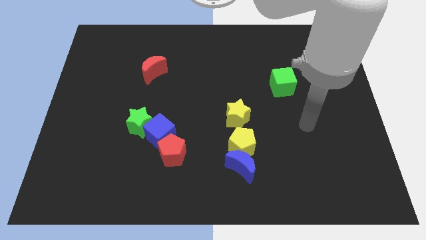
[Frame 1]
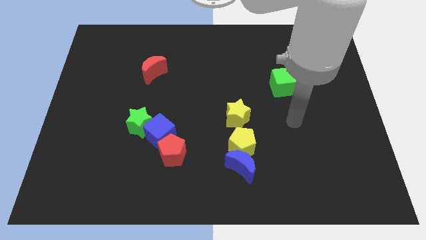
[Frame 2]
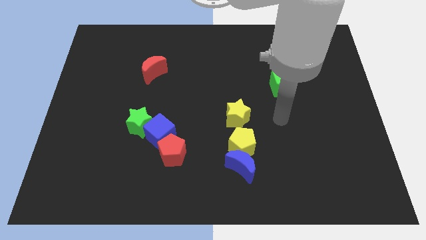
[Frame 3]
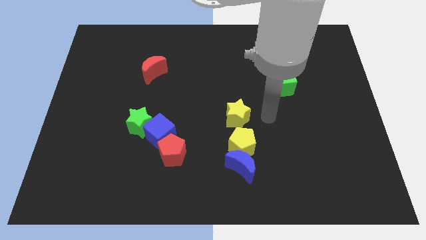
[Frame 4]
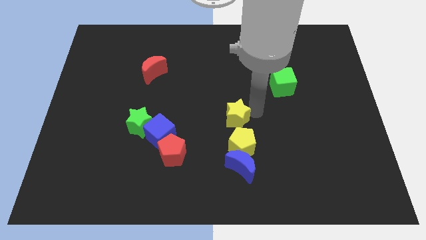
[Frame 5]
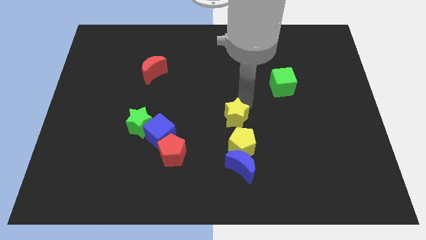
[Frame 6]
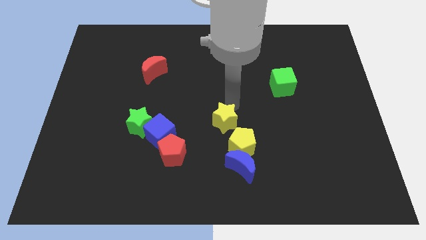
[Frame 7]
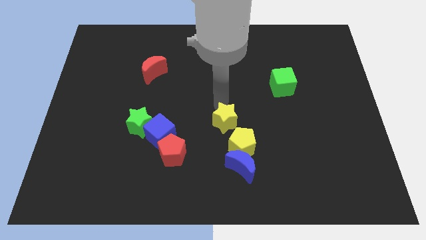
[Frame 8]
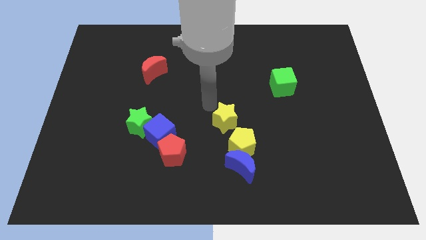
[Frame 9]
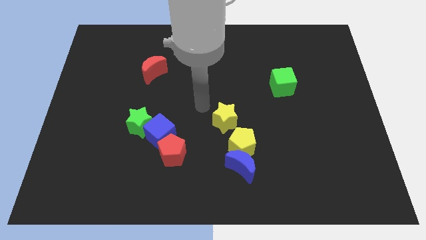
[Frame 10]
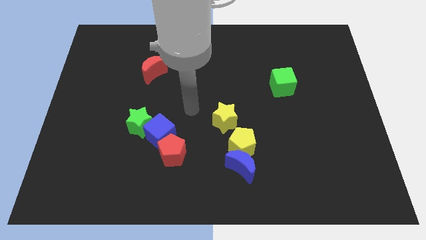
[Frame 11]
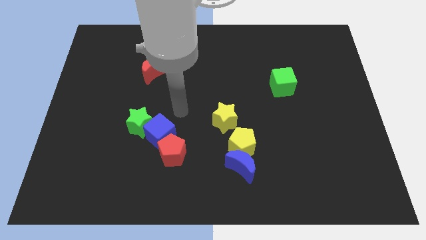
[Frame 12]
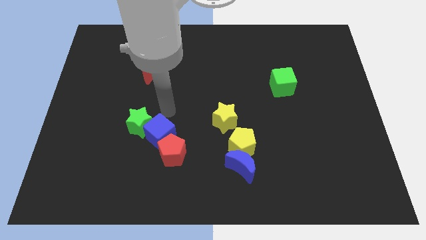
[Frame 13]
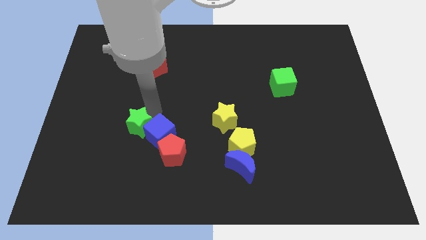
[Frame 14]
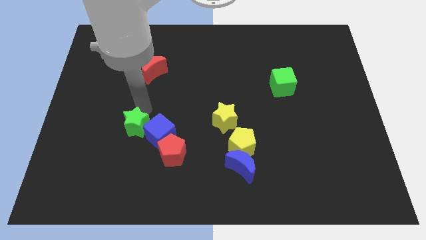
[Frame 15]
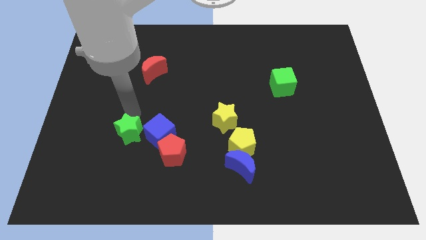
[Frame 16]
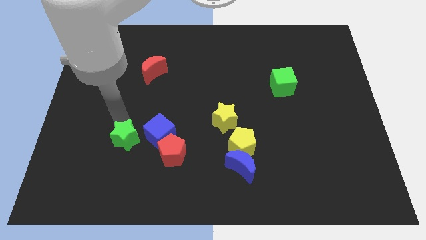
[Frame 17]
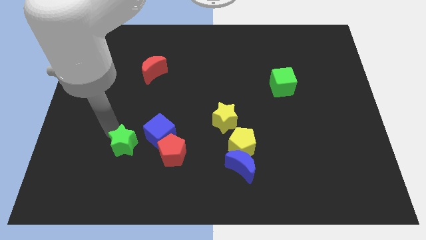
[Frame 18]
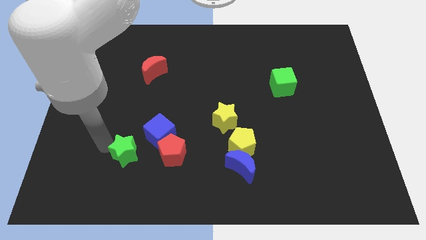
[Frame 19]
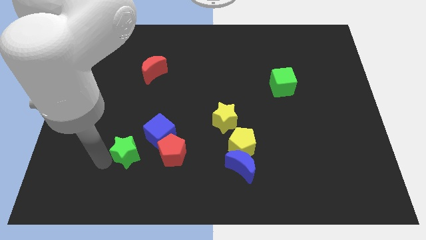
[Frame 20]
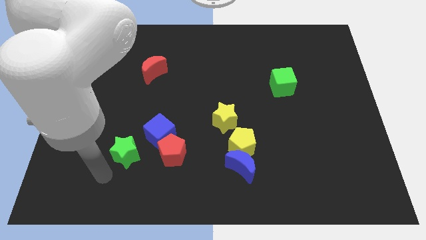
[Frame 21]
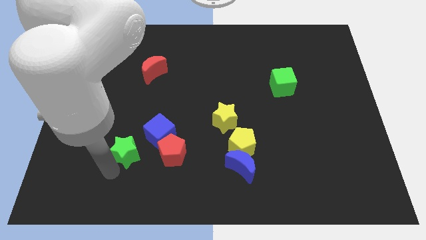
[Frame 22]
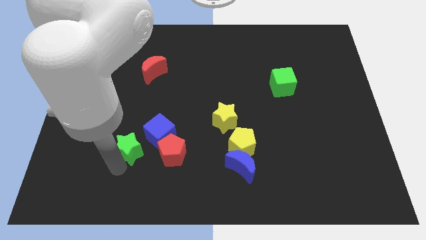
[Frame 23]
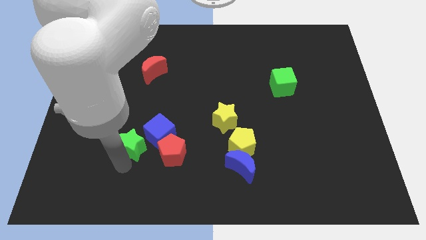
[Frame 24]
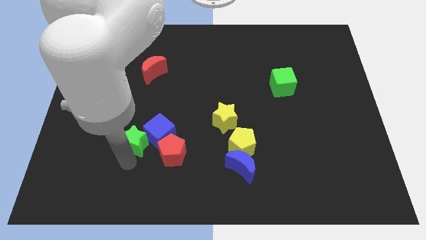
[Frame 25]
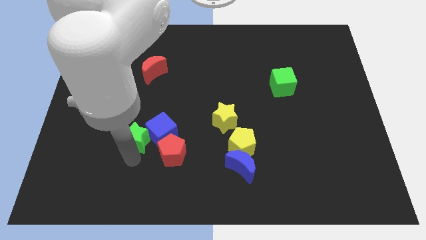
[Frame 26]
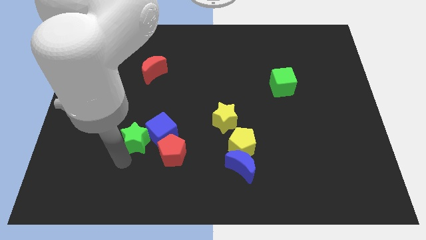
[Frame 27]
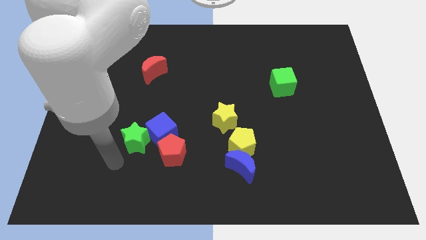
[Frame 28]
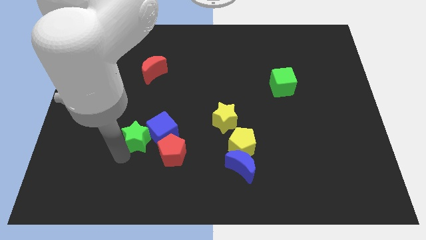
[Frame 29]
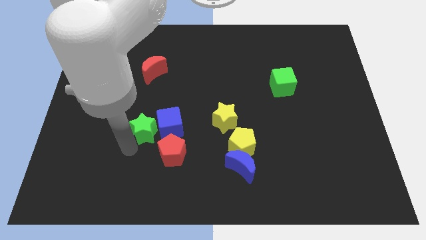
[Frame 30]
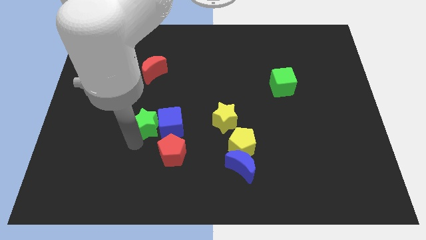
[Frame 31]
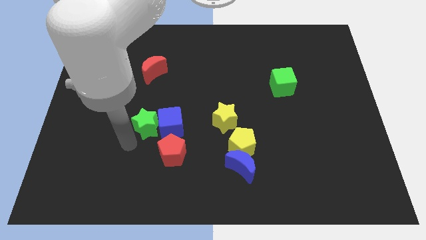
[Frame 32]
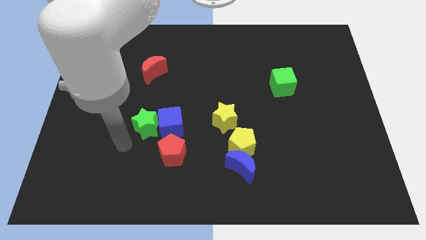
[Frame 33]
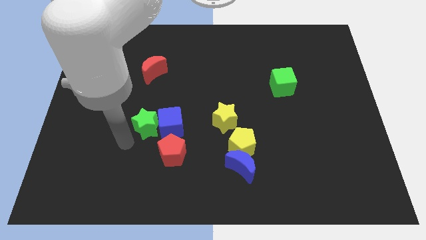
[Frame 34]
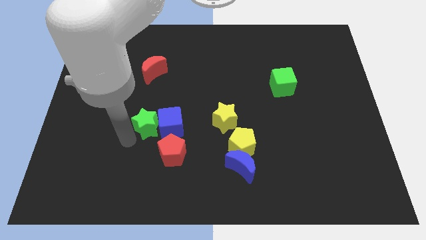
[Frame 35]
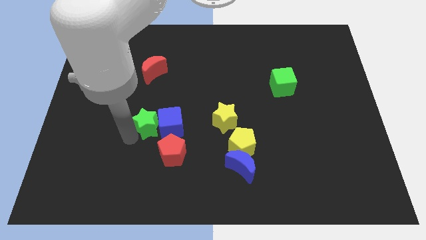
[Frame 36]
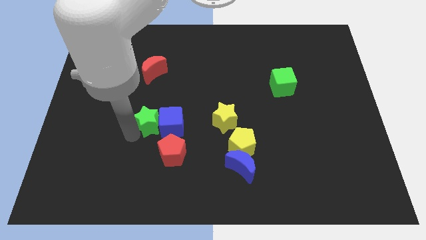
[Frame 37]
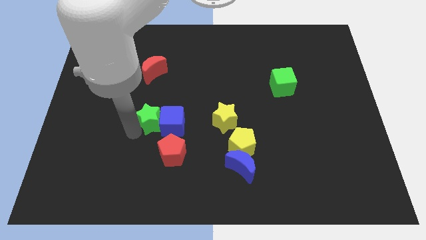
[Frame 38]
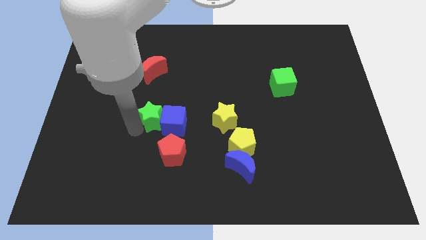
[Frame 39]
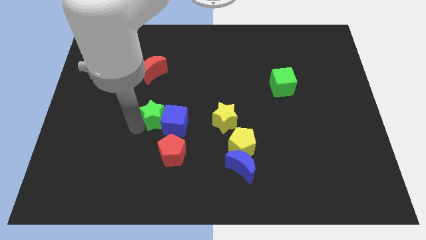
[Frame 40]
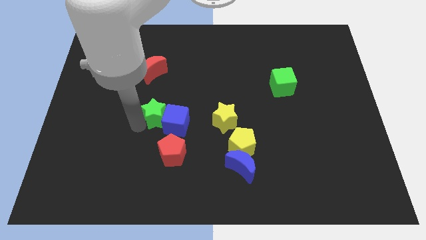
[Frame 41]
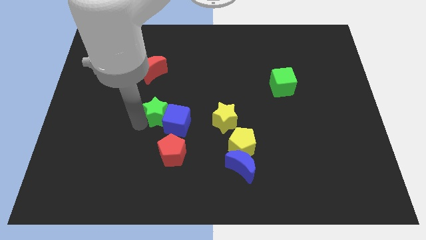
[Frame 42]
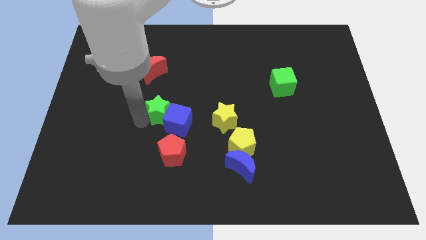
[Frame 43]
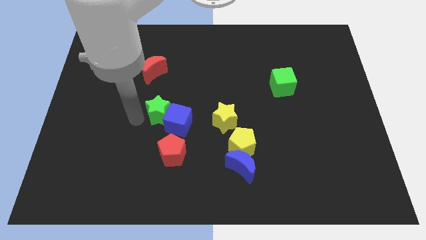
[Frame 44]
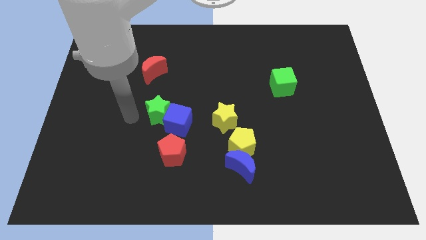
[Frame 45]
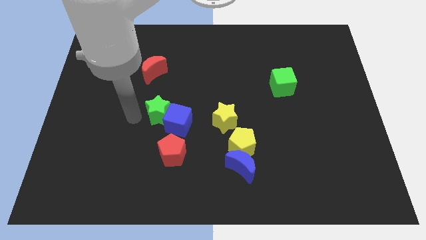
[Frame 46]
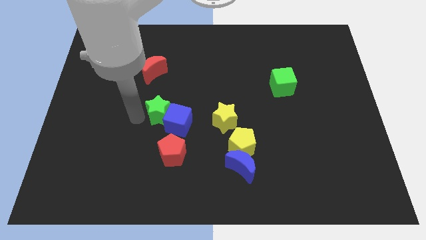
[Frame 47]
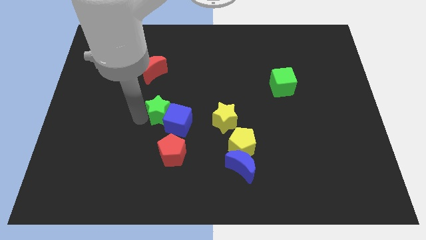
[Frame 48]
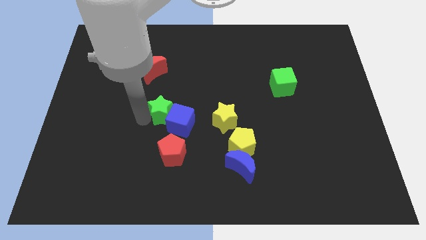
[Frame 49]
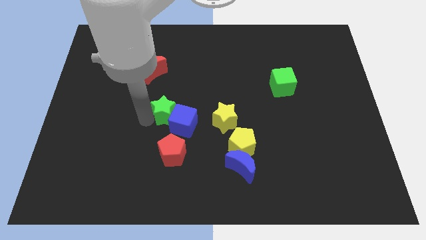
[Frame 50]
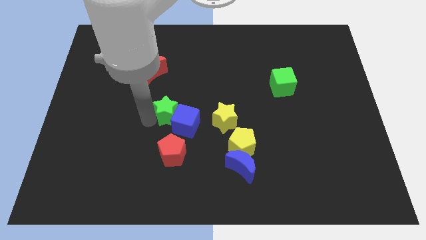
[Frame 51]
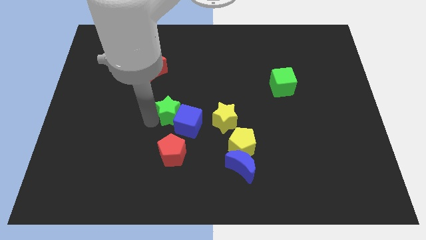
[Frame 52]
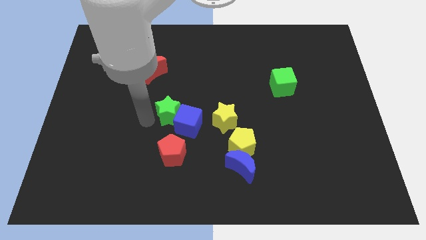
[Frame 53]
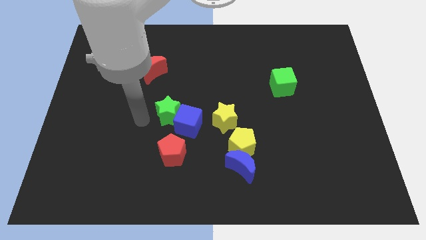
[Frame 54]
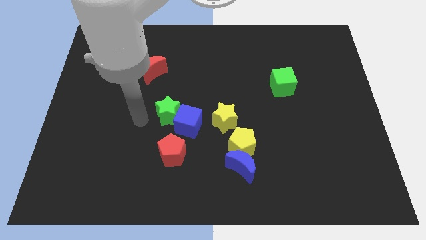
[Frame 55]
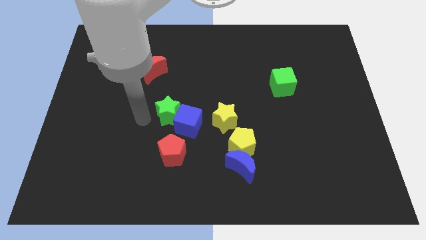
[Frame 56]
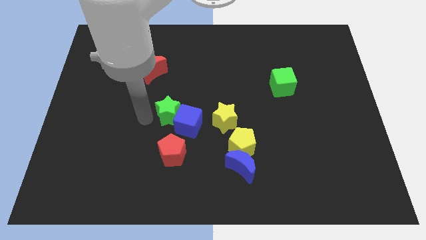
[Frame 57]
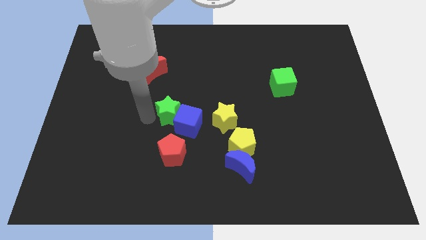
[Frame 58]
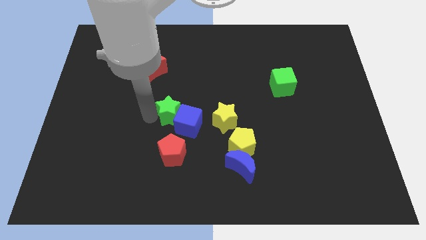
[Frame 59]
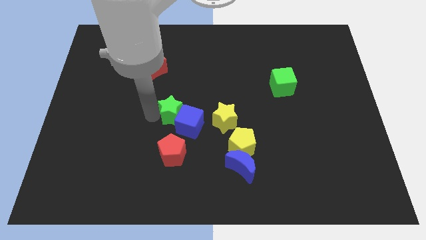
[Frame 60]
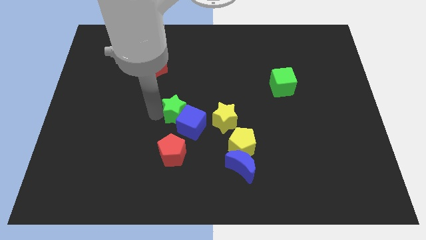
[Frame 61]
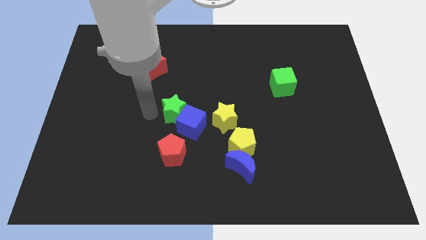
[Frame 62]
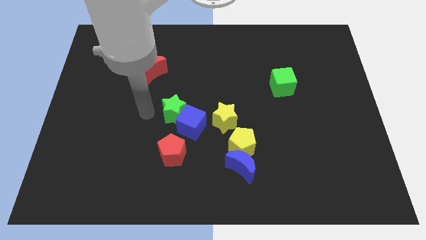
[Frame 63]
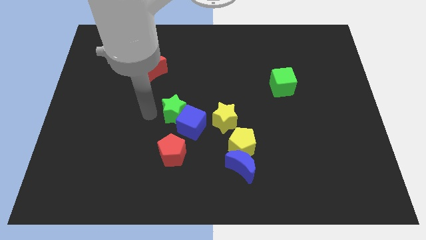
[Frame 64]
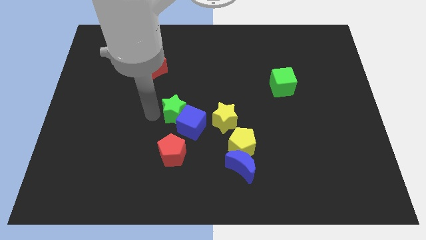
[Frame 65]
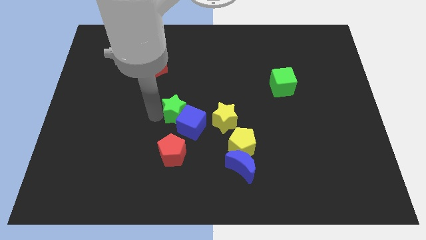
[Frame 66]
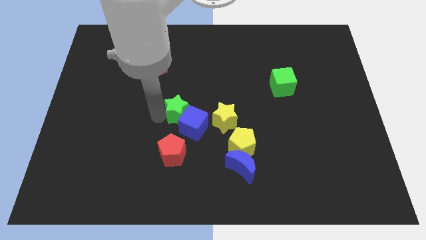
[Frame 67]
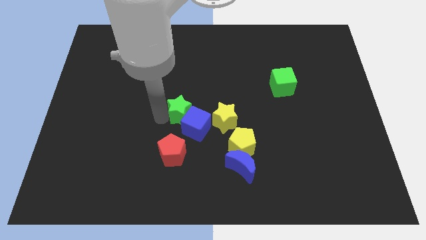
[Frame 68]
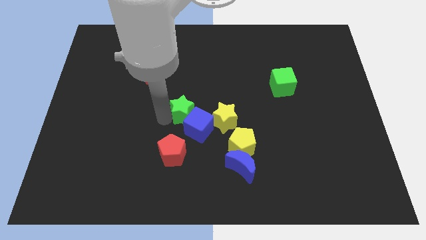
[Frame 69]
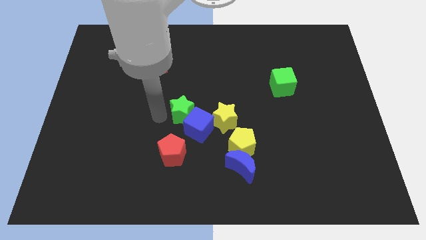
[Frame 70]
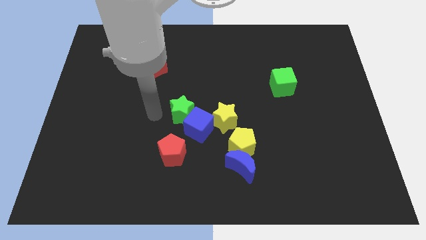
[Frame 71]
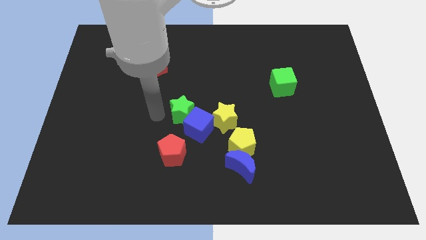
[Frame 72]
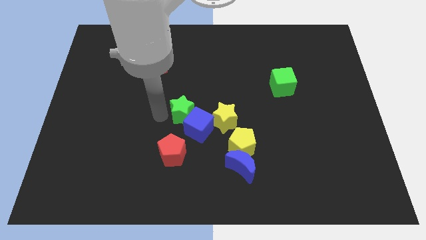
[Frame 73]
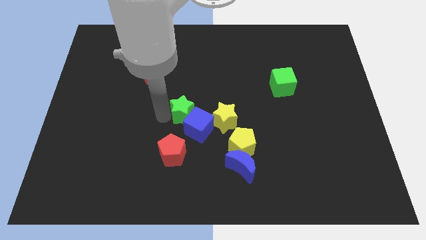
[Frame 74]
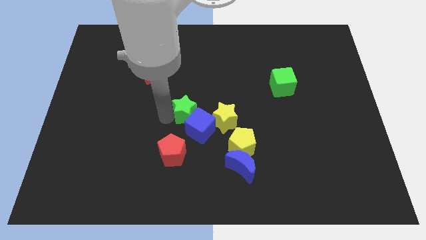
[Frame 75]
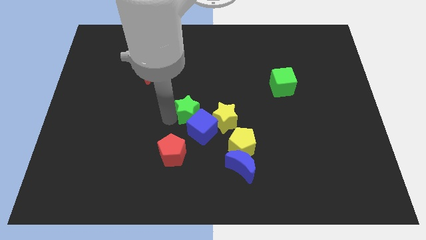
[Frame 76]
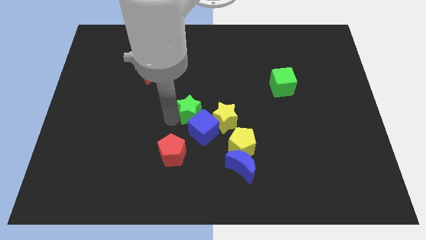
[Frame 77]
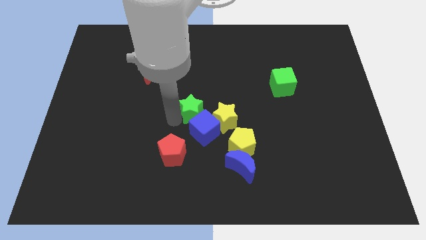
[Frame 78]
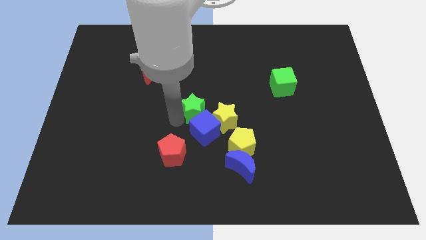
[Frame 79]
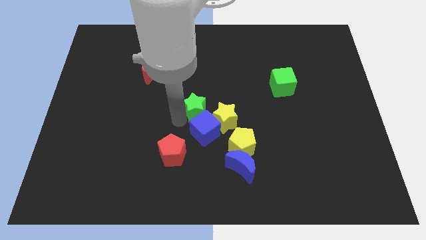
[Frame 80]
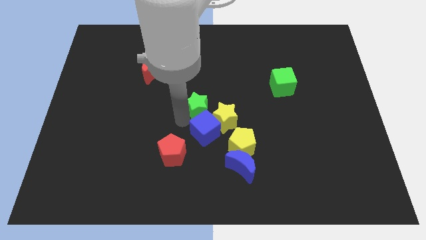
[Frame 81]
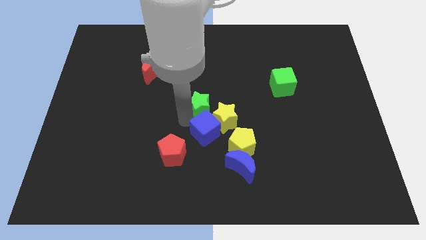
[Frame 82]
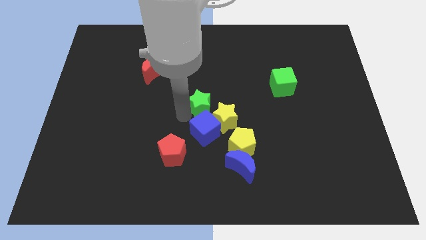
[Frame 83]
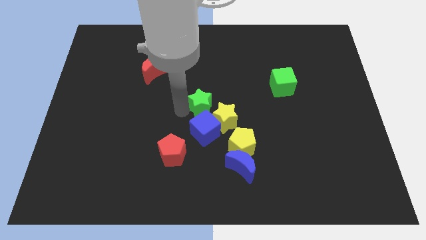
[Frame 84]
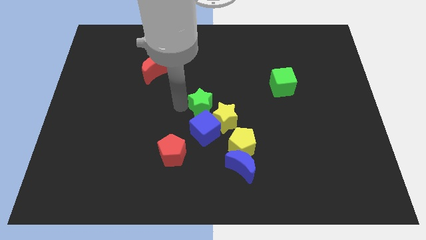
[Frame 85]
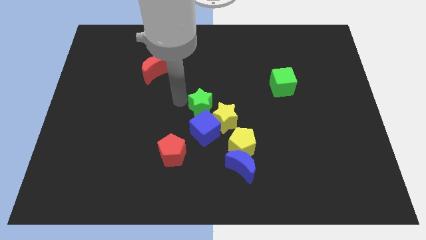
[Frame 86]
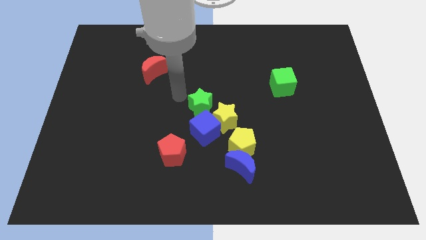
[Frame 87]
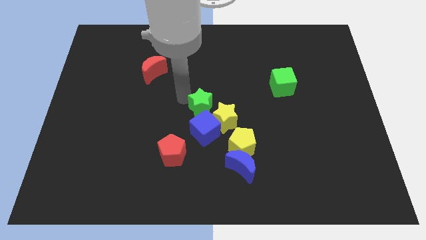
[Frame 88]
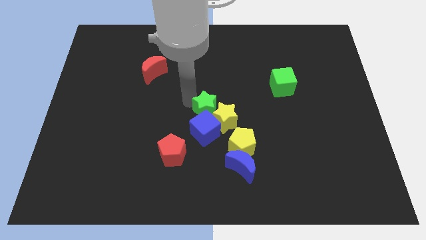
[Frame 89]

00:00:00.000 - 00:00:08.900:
slide the green star close to the yellow star
